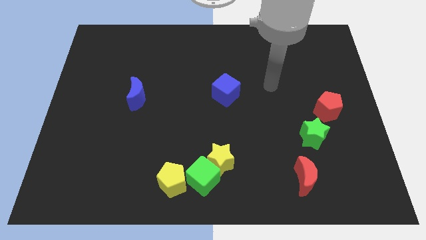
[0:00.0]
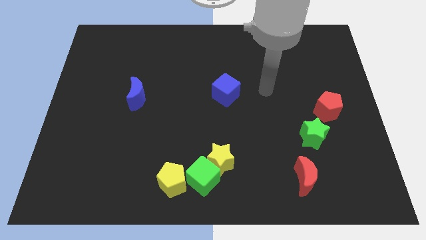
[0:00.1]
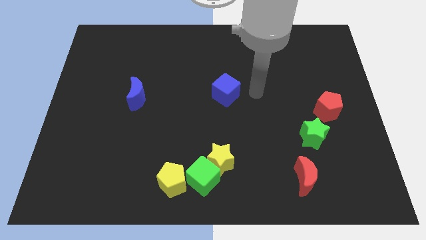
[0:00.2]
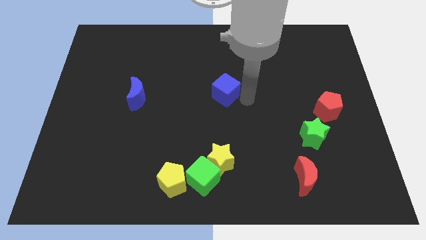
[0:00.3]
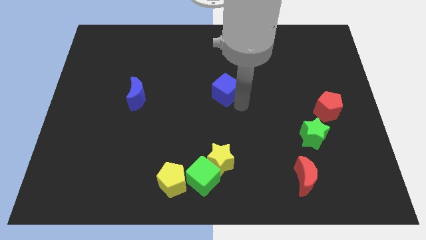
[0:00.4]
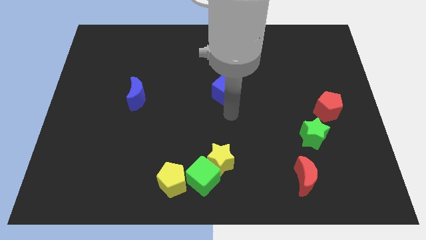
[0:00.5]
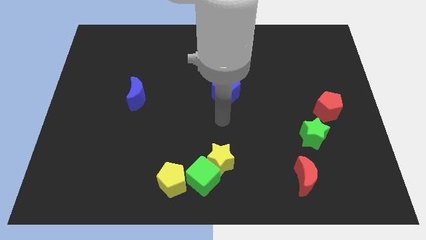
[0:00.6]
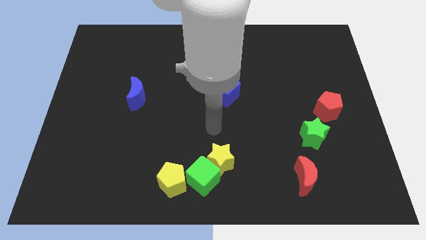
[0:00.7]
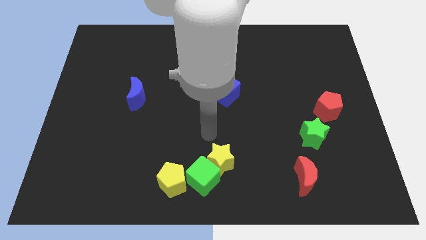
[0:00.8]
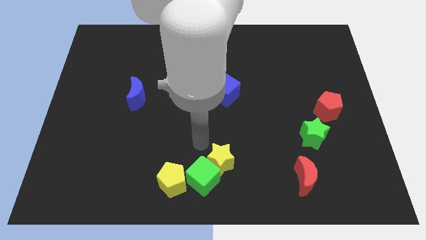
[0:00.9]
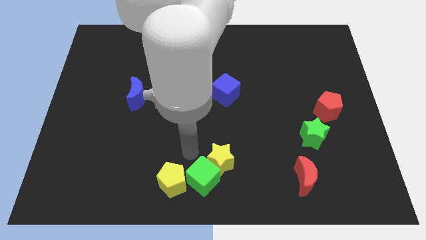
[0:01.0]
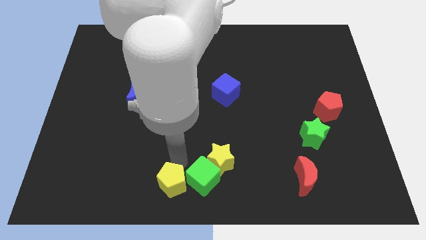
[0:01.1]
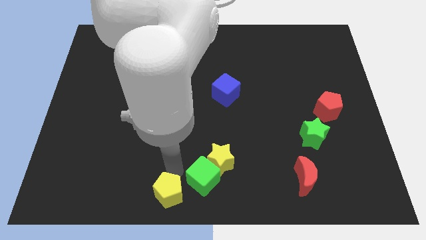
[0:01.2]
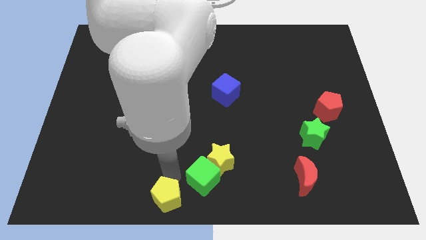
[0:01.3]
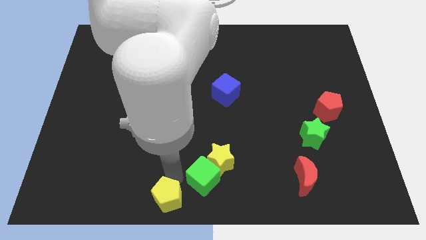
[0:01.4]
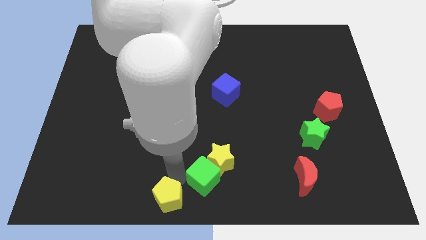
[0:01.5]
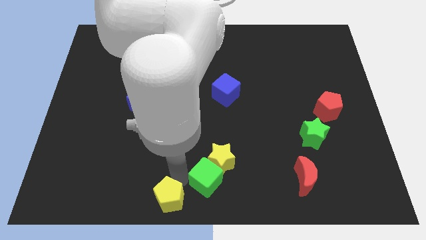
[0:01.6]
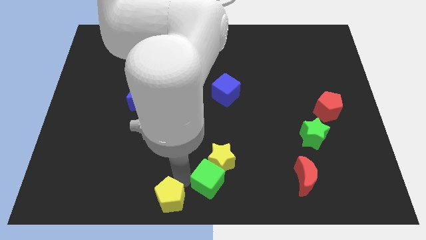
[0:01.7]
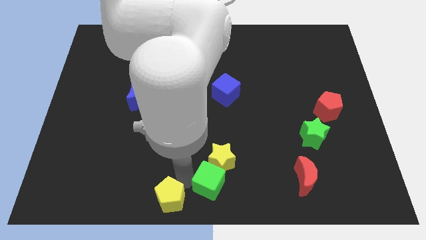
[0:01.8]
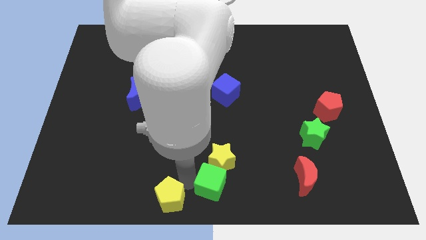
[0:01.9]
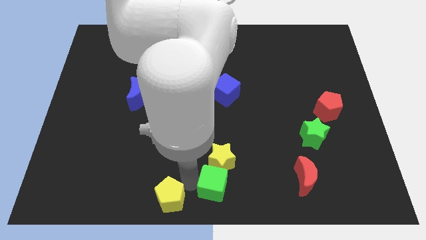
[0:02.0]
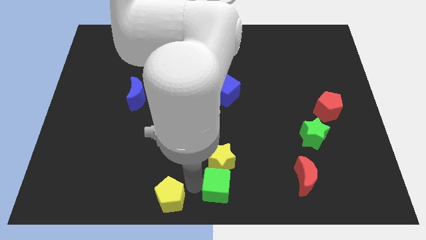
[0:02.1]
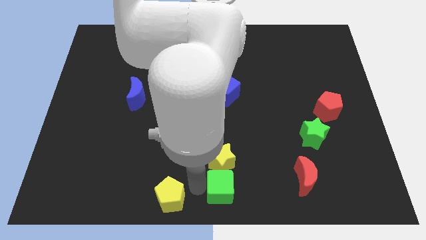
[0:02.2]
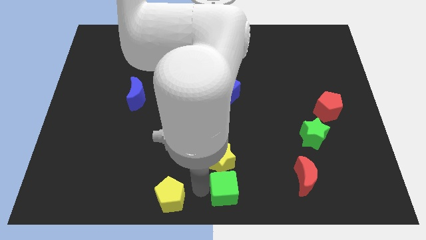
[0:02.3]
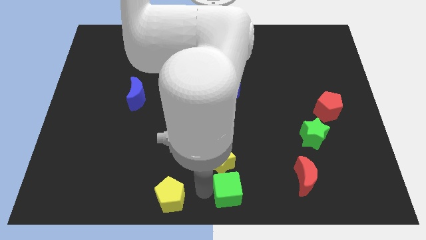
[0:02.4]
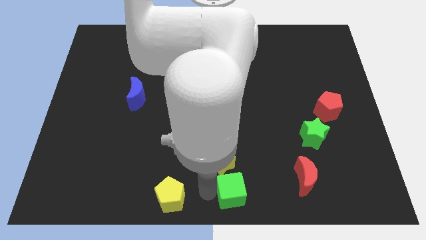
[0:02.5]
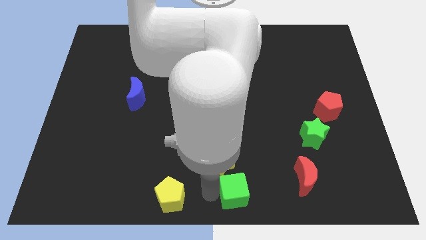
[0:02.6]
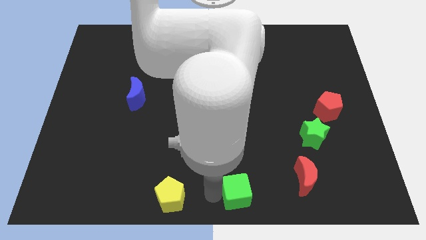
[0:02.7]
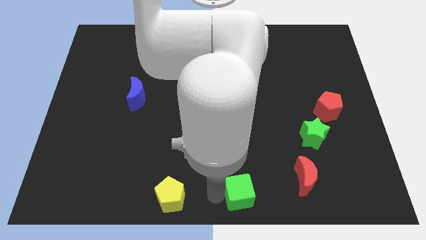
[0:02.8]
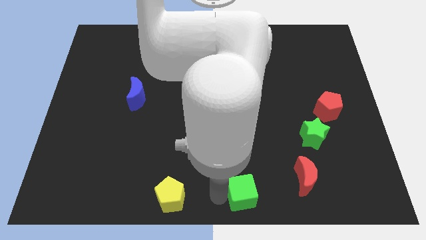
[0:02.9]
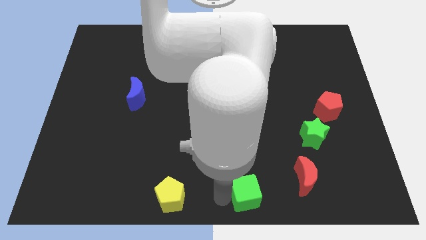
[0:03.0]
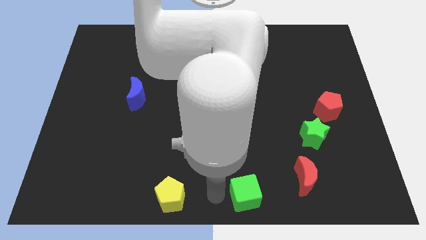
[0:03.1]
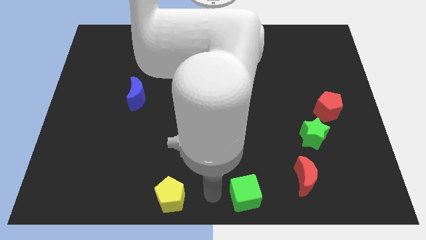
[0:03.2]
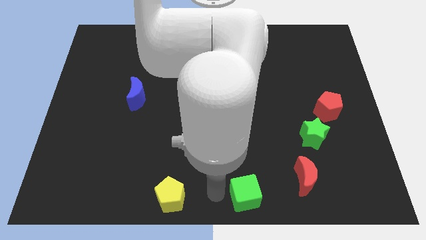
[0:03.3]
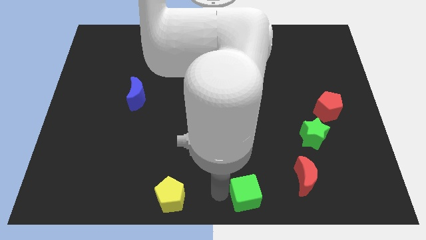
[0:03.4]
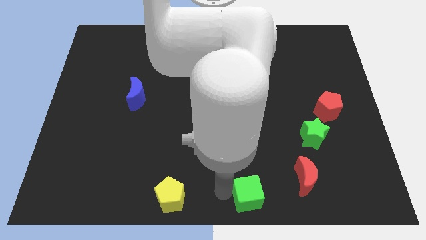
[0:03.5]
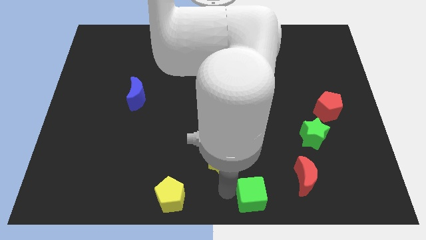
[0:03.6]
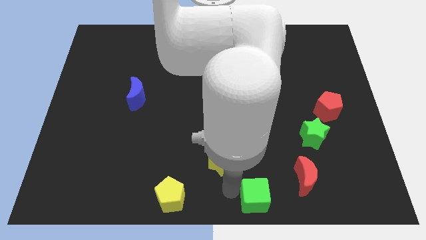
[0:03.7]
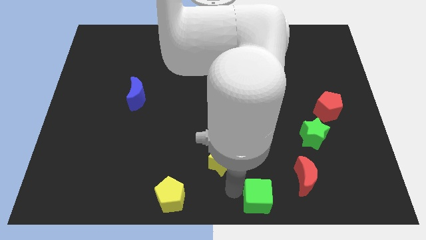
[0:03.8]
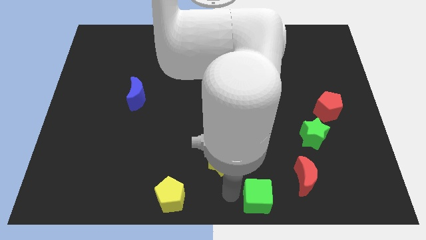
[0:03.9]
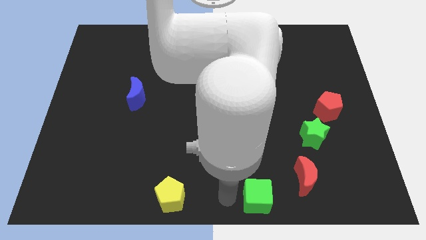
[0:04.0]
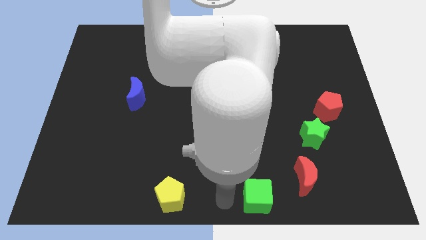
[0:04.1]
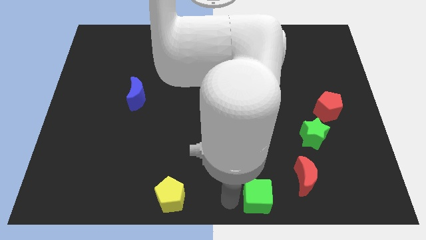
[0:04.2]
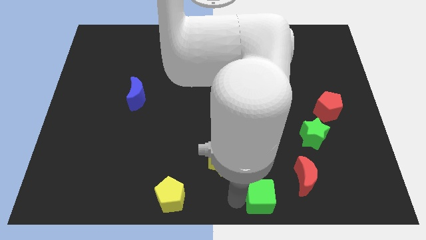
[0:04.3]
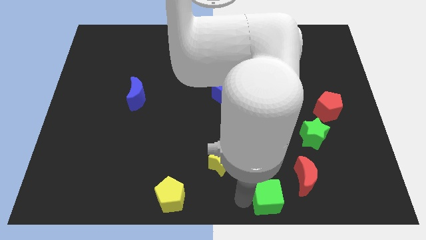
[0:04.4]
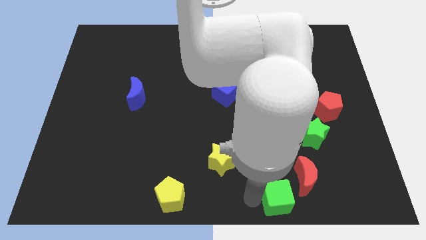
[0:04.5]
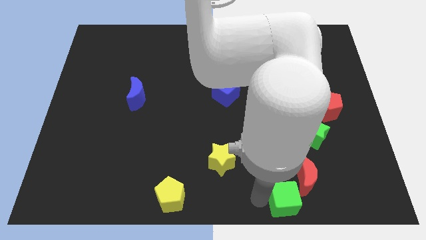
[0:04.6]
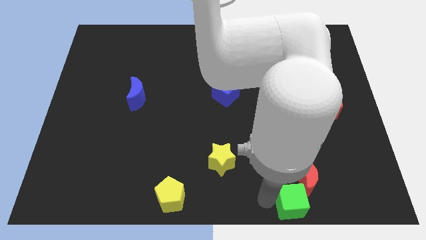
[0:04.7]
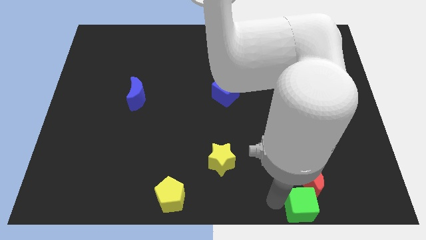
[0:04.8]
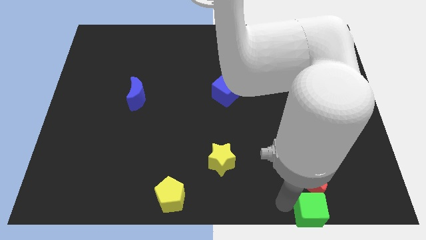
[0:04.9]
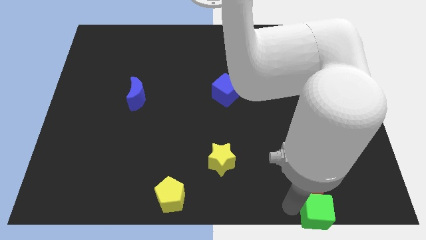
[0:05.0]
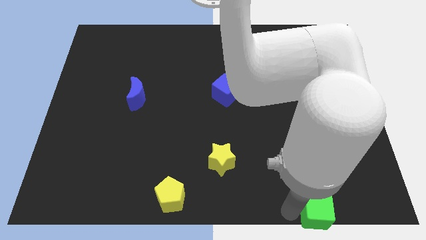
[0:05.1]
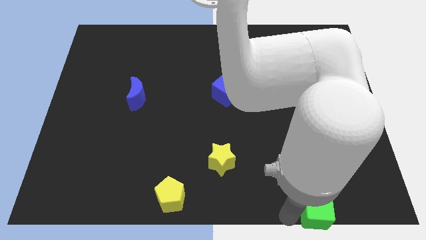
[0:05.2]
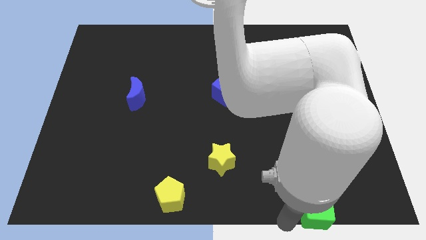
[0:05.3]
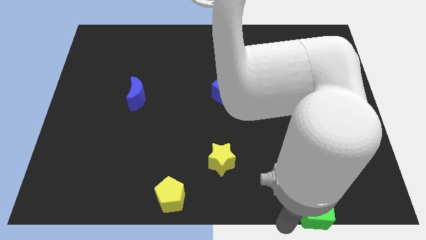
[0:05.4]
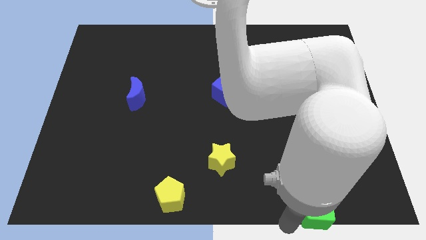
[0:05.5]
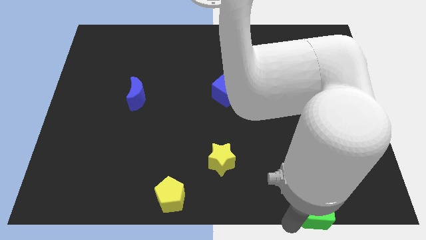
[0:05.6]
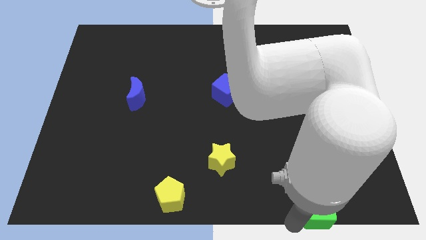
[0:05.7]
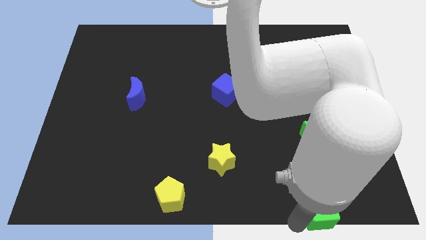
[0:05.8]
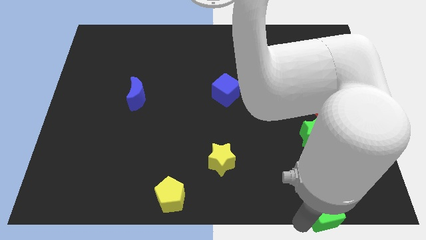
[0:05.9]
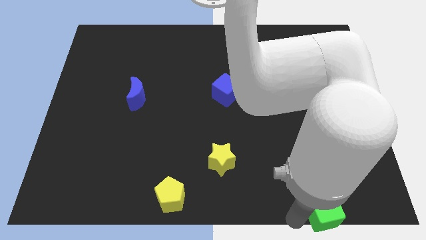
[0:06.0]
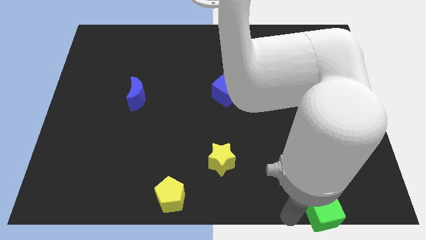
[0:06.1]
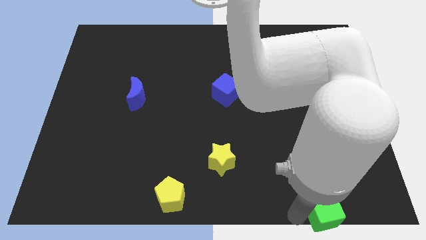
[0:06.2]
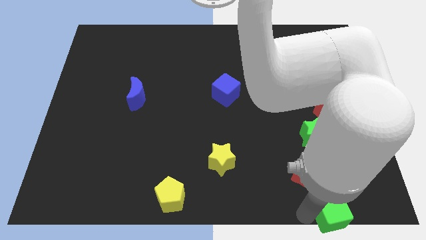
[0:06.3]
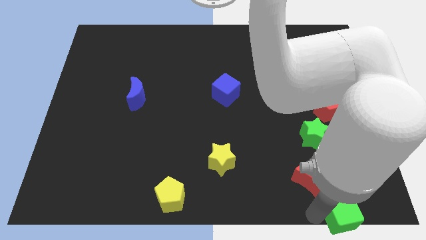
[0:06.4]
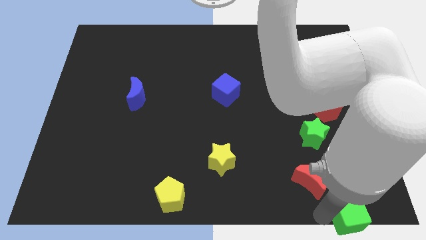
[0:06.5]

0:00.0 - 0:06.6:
slide the green cube to the bottom right corner
